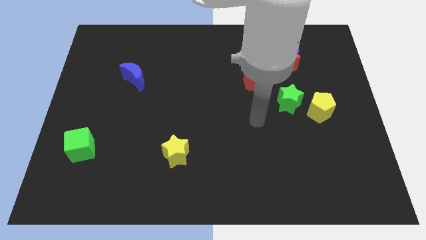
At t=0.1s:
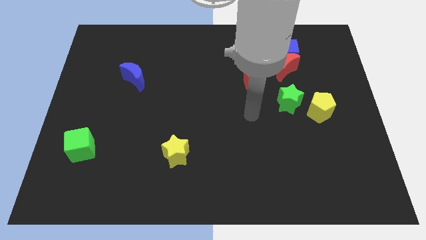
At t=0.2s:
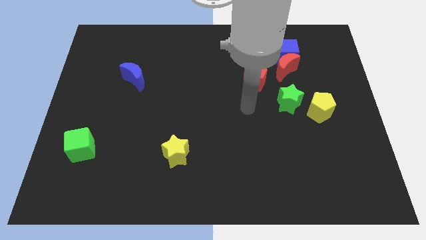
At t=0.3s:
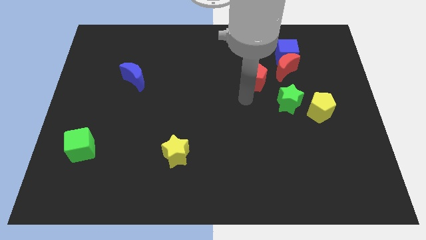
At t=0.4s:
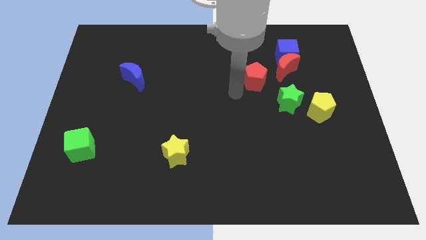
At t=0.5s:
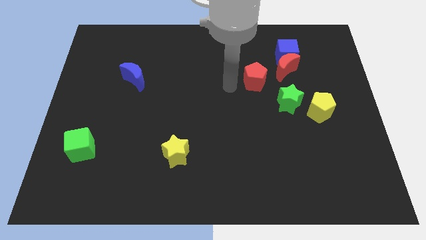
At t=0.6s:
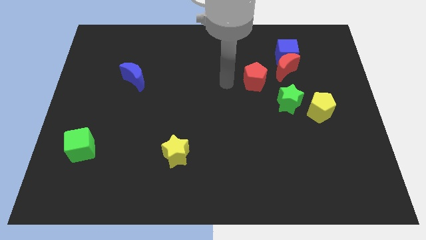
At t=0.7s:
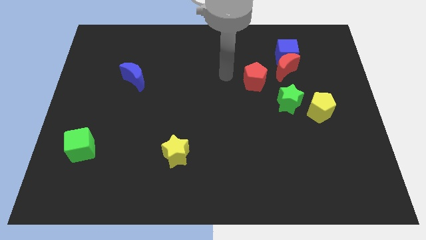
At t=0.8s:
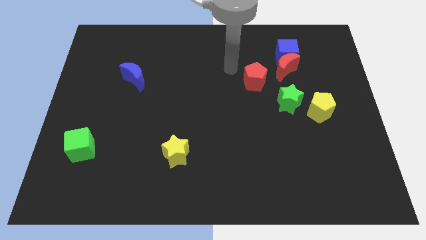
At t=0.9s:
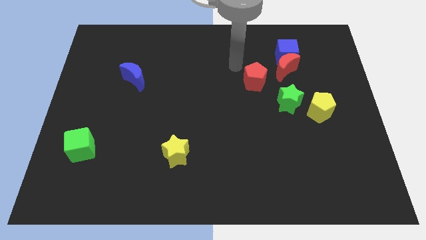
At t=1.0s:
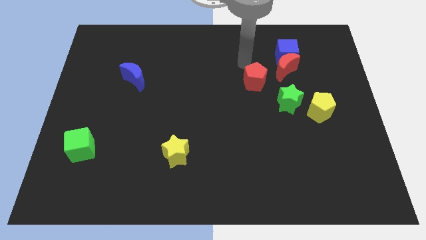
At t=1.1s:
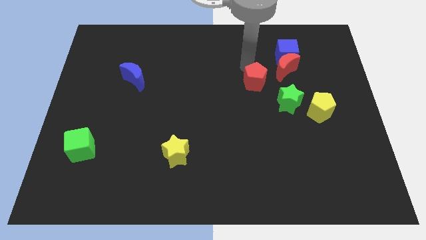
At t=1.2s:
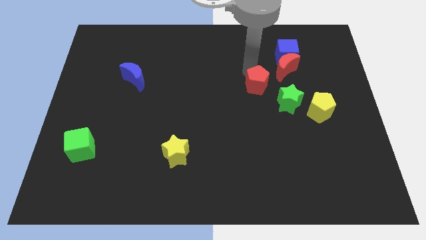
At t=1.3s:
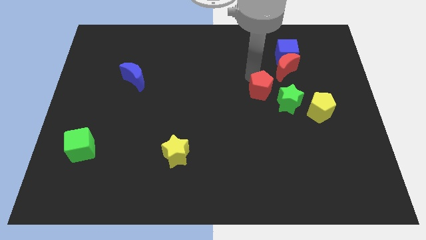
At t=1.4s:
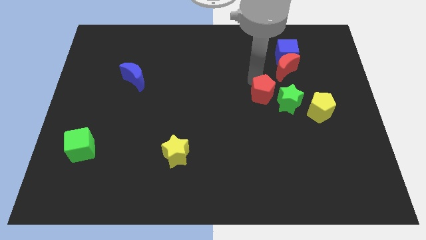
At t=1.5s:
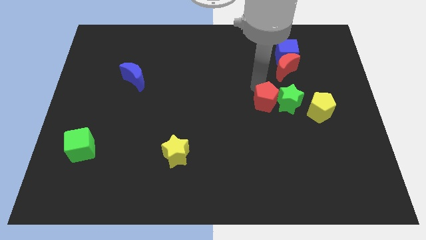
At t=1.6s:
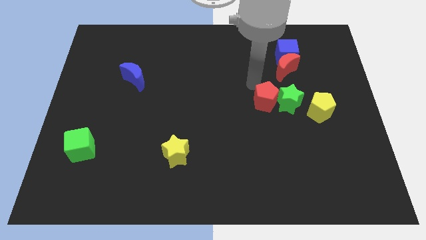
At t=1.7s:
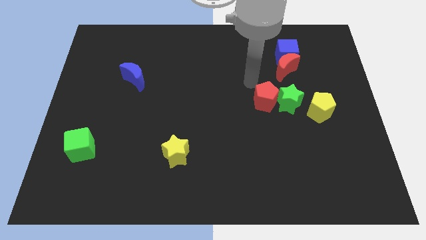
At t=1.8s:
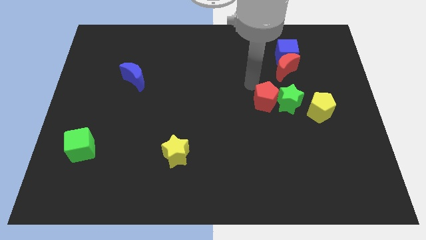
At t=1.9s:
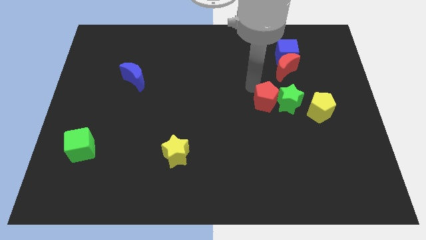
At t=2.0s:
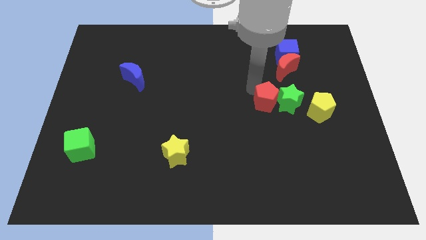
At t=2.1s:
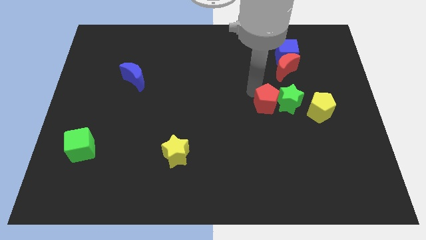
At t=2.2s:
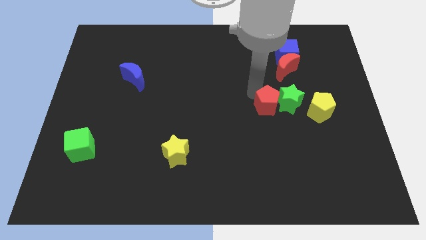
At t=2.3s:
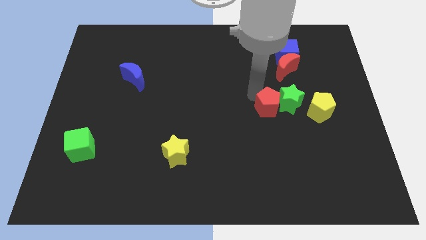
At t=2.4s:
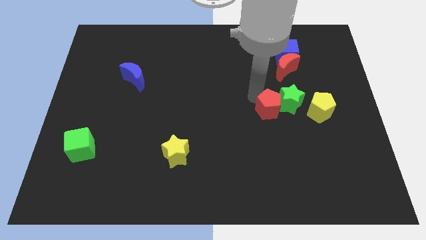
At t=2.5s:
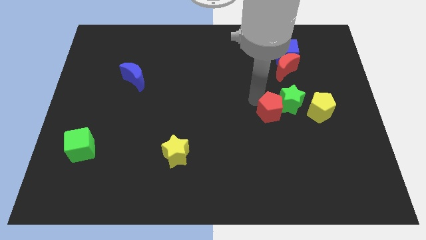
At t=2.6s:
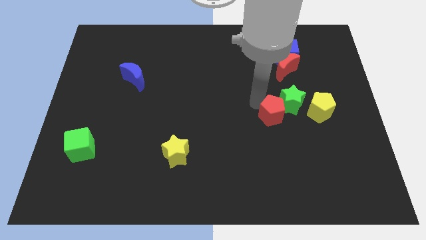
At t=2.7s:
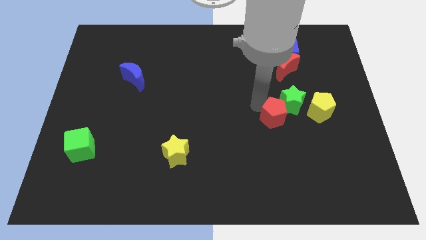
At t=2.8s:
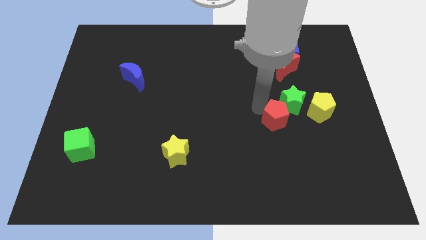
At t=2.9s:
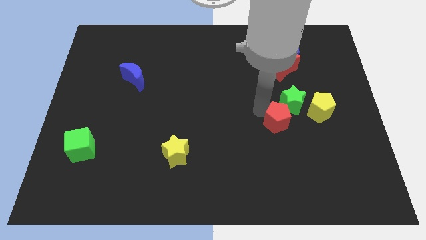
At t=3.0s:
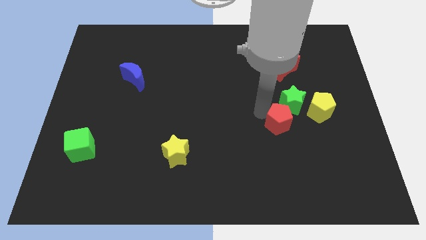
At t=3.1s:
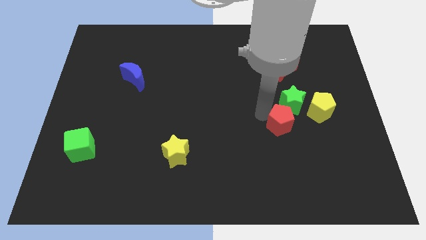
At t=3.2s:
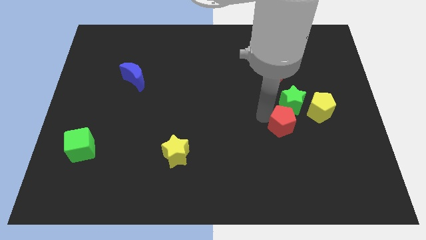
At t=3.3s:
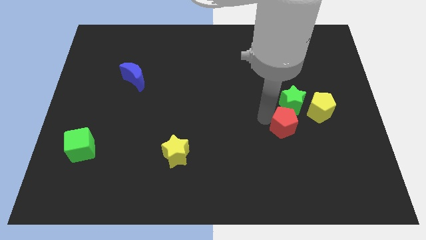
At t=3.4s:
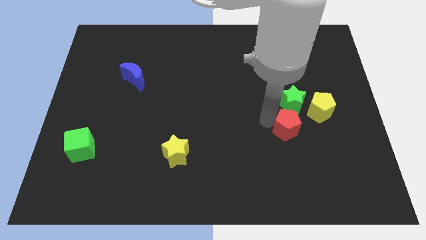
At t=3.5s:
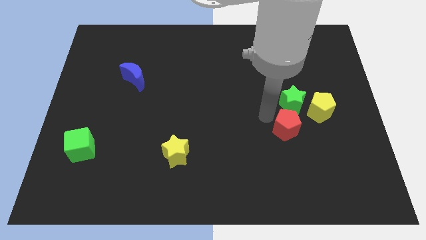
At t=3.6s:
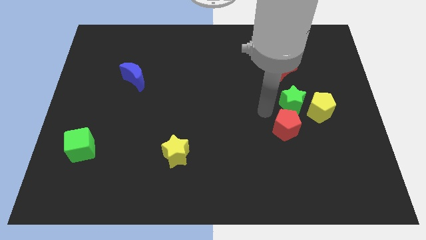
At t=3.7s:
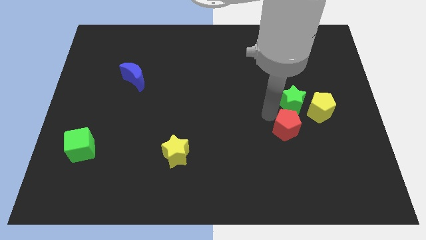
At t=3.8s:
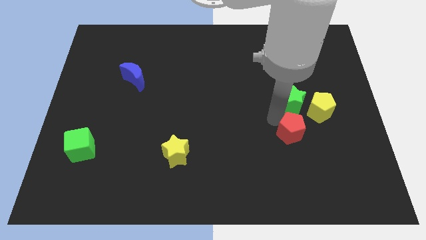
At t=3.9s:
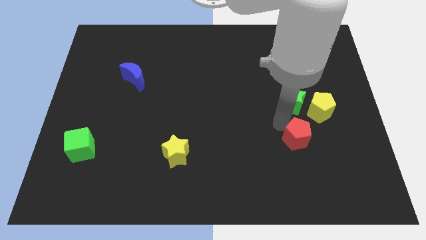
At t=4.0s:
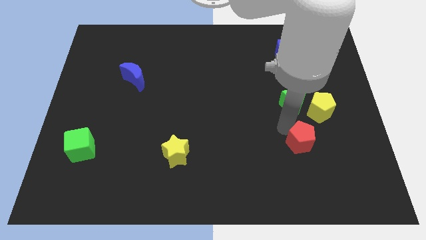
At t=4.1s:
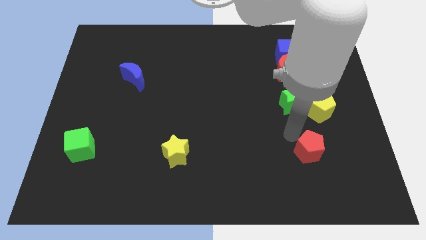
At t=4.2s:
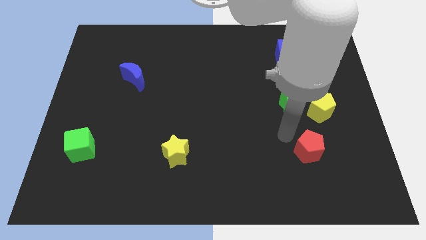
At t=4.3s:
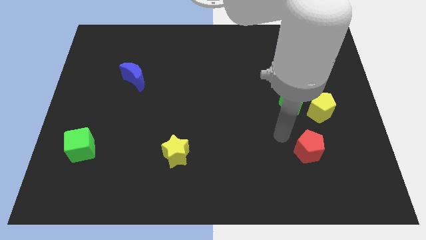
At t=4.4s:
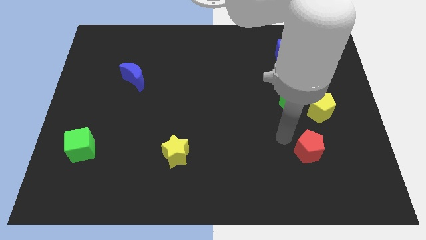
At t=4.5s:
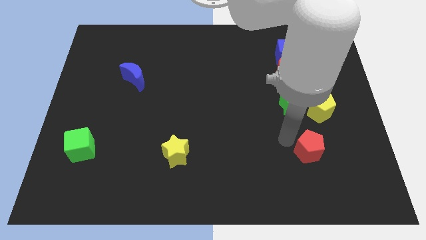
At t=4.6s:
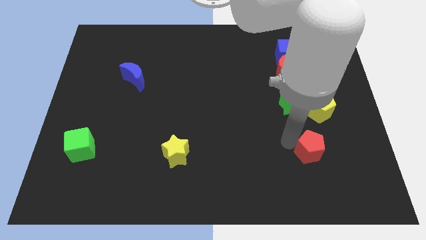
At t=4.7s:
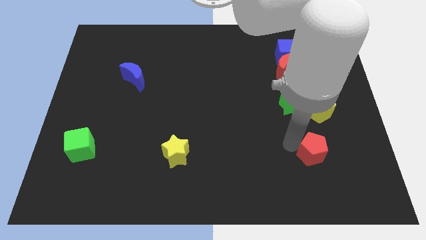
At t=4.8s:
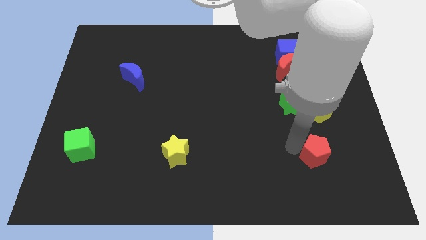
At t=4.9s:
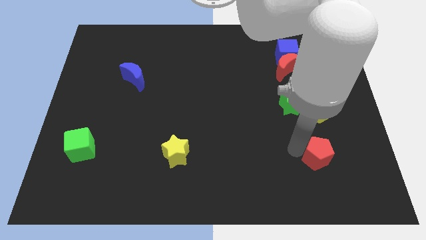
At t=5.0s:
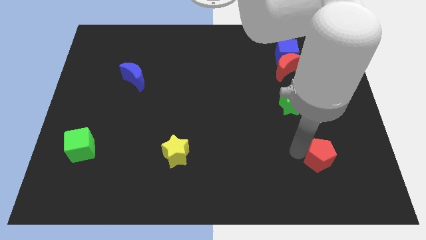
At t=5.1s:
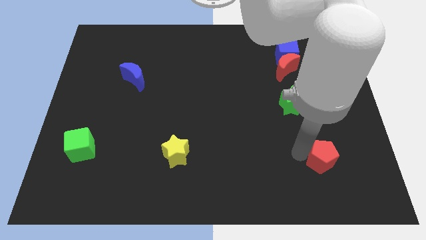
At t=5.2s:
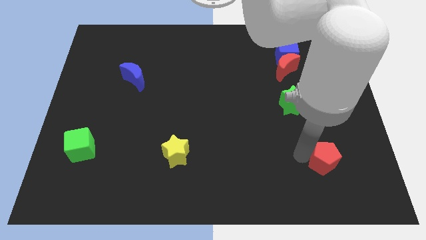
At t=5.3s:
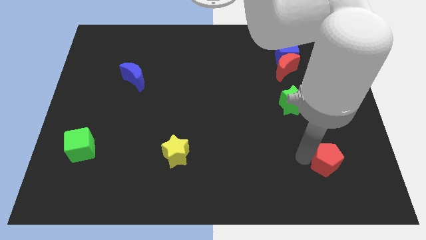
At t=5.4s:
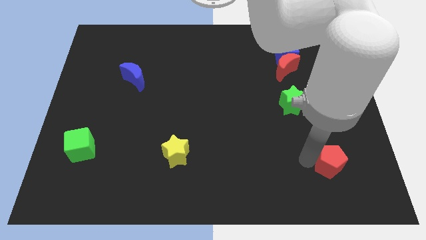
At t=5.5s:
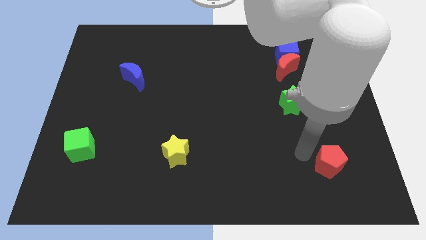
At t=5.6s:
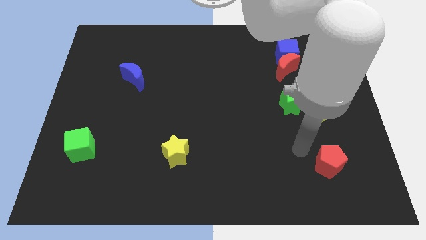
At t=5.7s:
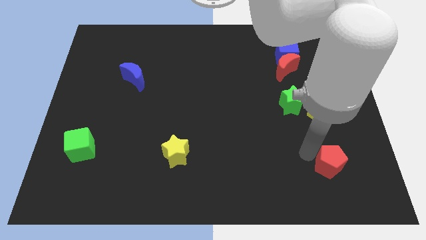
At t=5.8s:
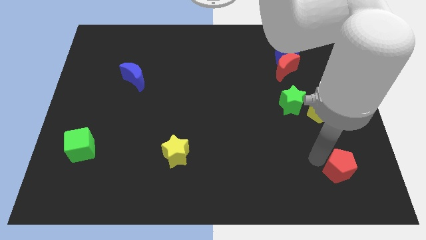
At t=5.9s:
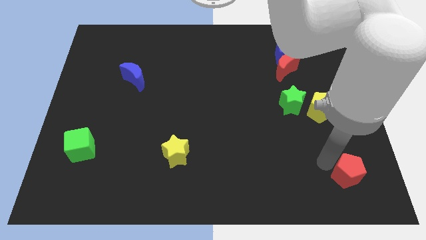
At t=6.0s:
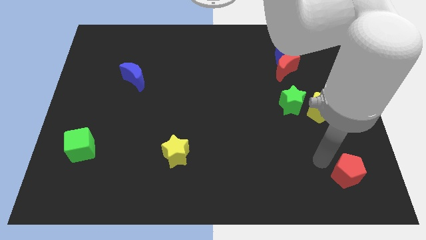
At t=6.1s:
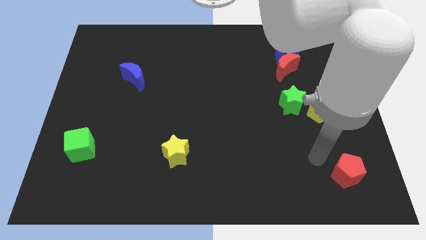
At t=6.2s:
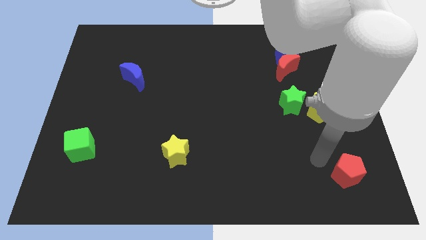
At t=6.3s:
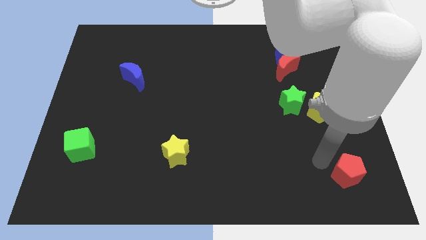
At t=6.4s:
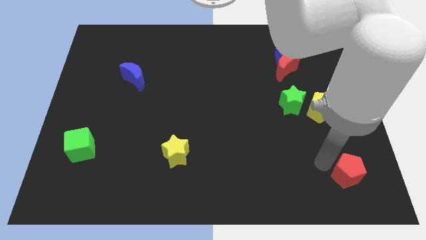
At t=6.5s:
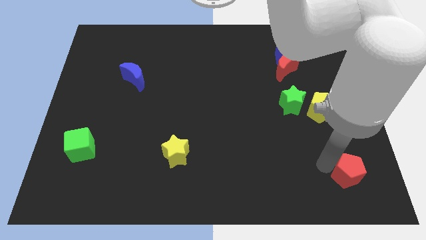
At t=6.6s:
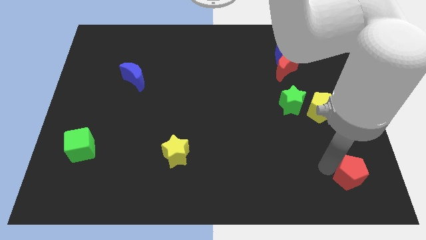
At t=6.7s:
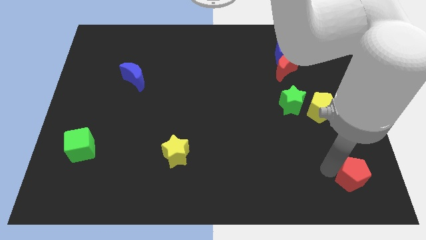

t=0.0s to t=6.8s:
push the red pentagon to the bottom right corner
